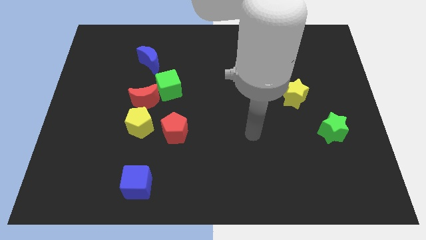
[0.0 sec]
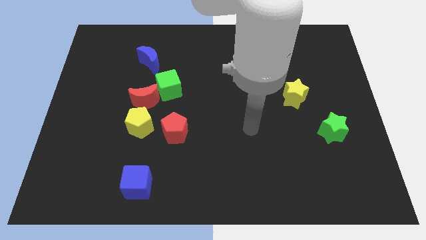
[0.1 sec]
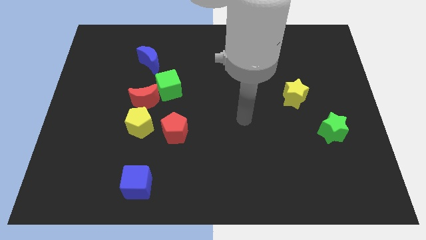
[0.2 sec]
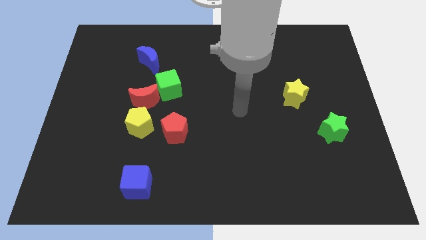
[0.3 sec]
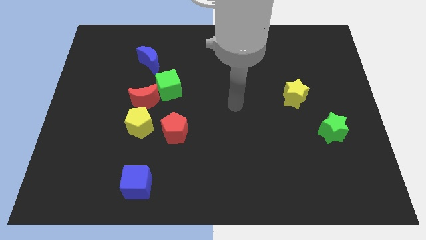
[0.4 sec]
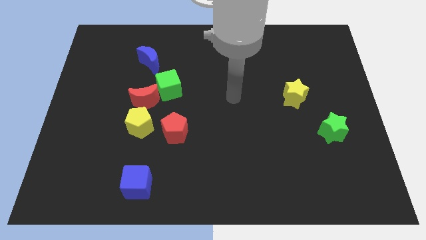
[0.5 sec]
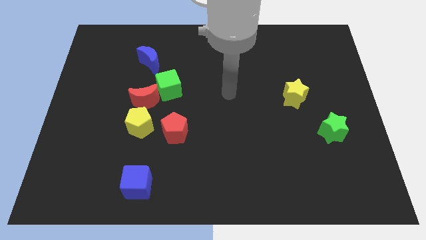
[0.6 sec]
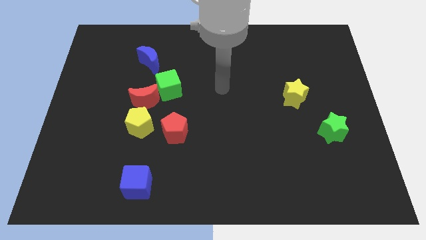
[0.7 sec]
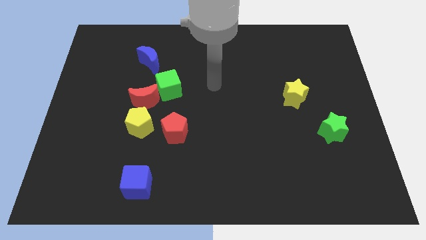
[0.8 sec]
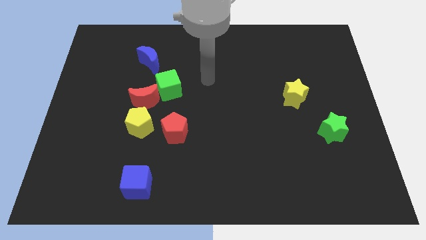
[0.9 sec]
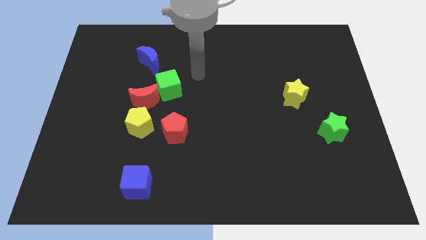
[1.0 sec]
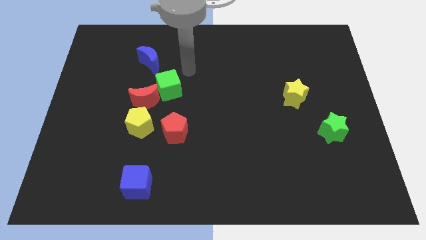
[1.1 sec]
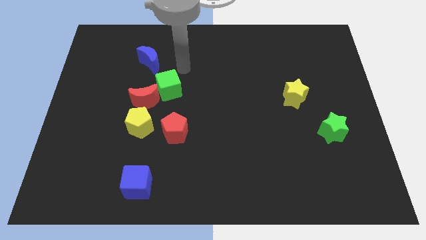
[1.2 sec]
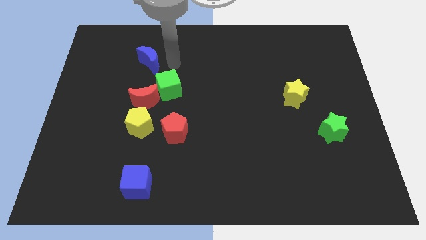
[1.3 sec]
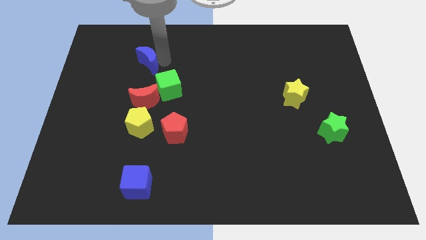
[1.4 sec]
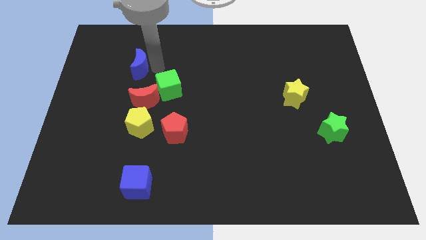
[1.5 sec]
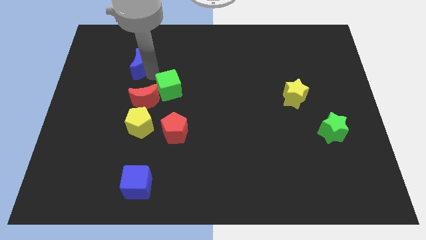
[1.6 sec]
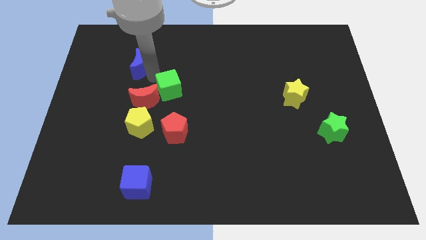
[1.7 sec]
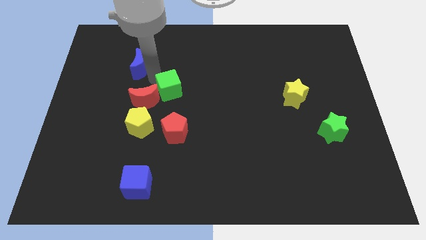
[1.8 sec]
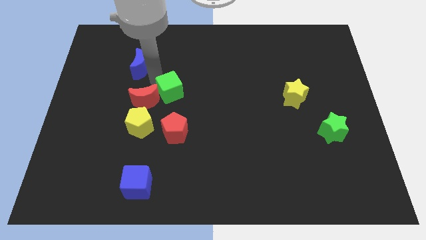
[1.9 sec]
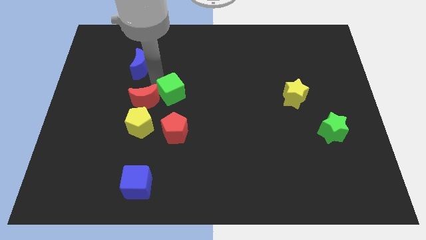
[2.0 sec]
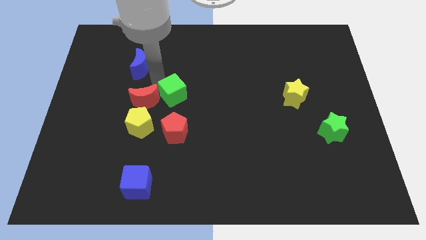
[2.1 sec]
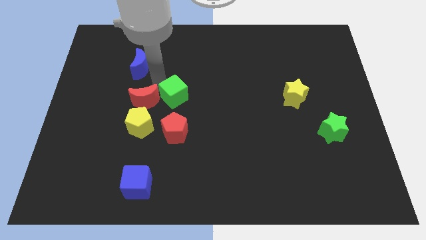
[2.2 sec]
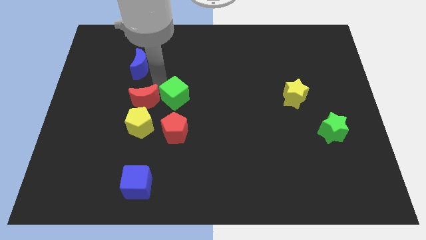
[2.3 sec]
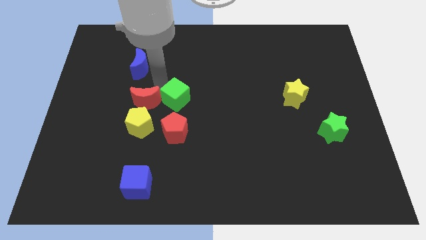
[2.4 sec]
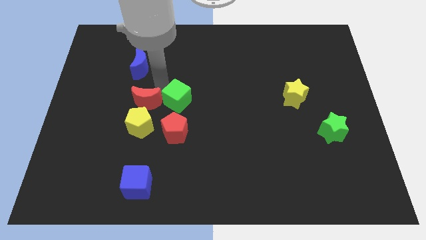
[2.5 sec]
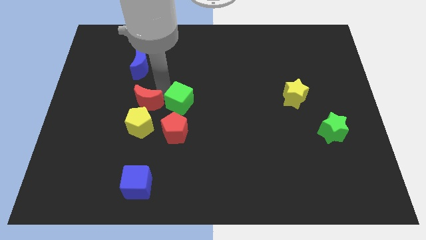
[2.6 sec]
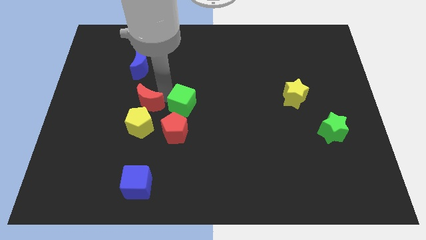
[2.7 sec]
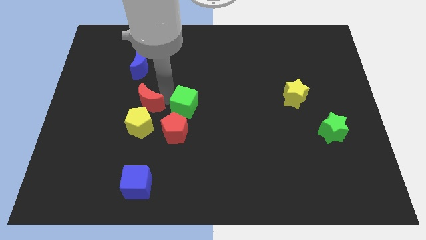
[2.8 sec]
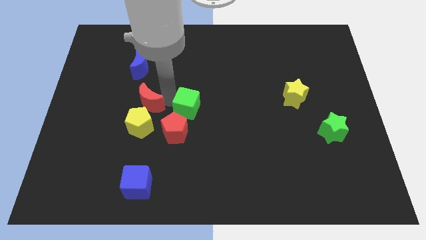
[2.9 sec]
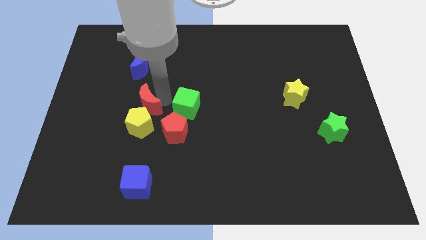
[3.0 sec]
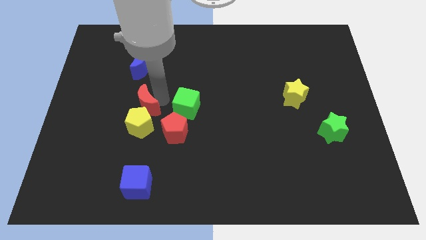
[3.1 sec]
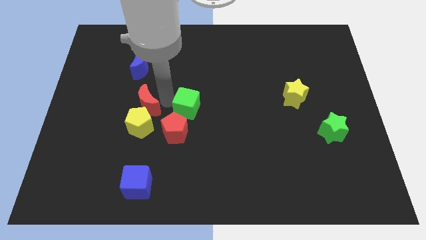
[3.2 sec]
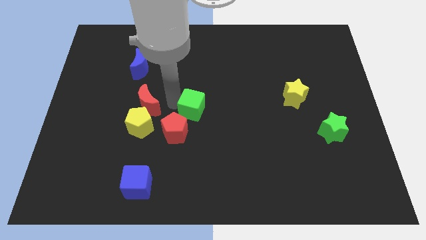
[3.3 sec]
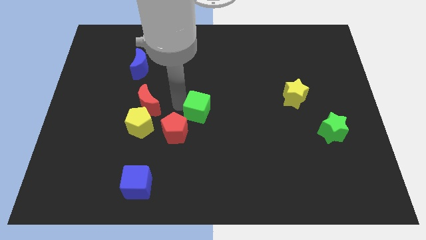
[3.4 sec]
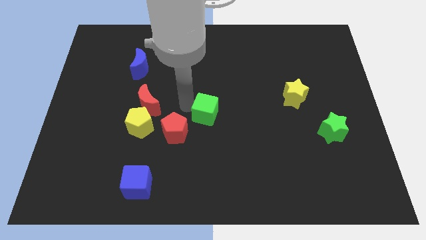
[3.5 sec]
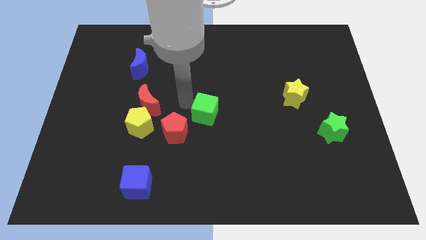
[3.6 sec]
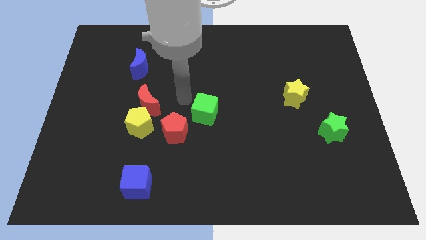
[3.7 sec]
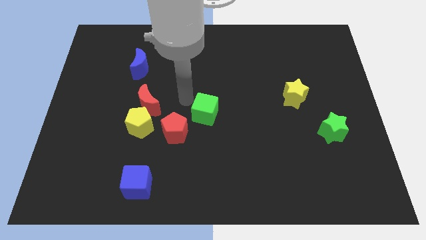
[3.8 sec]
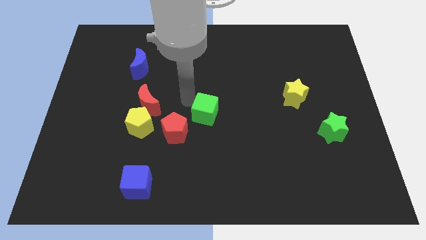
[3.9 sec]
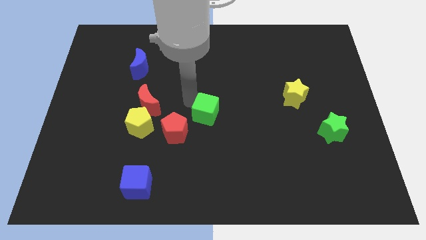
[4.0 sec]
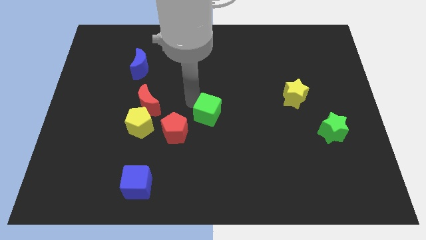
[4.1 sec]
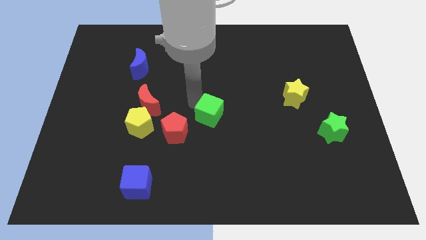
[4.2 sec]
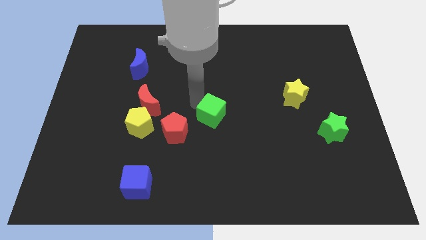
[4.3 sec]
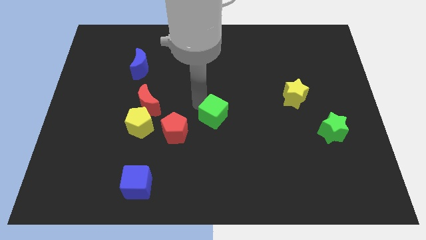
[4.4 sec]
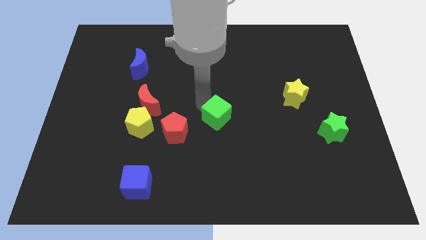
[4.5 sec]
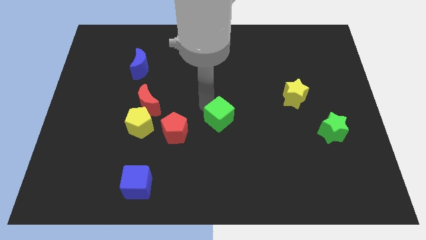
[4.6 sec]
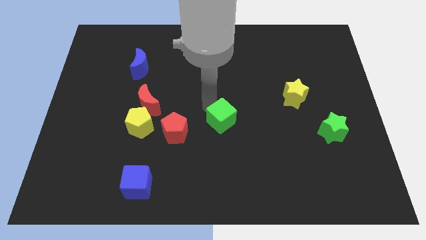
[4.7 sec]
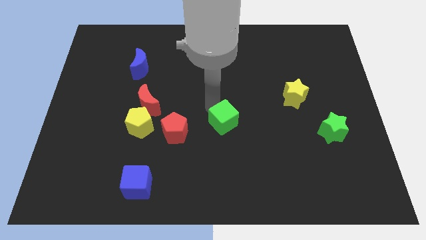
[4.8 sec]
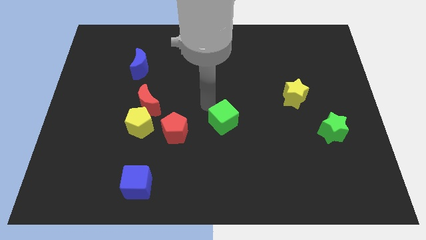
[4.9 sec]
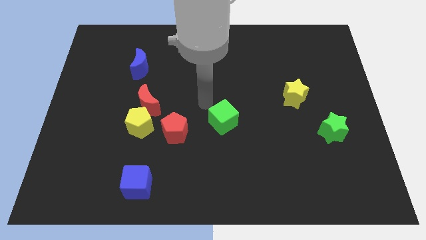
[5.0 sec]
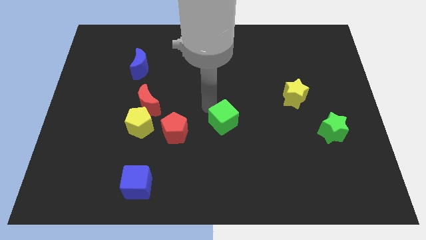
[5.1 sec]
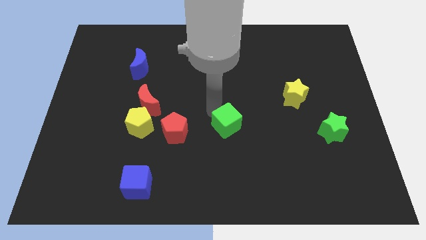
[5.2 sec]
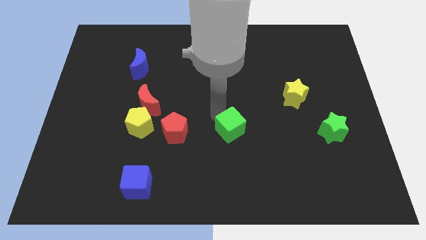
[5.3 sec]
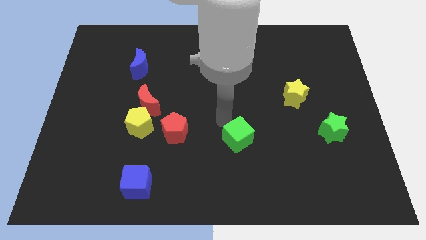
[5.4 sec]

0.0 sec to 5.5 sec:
push the green cube down and right

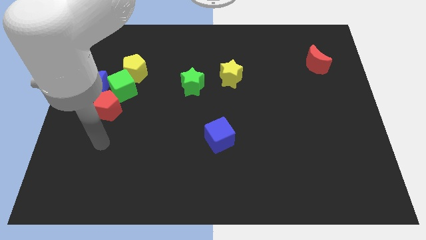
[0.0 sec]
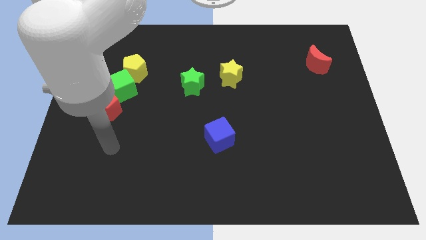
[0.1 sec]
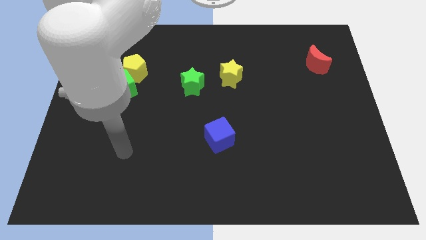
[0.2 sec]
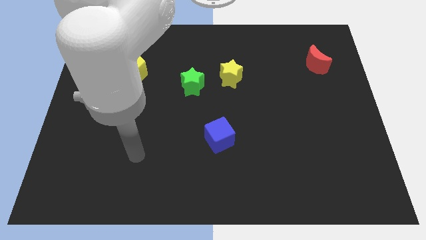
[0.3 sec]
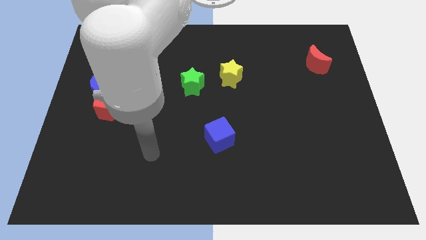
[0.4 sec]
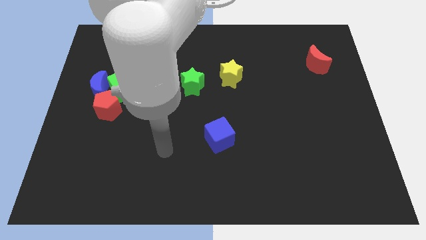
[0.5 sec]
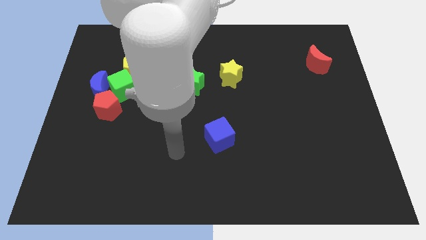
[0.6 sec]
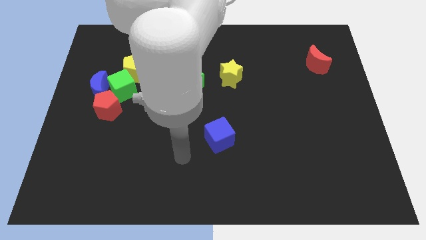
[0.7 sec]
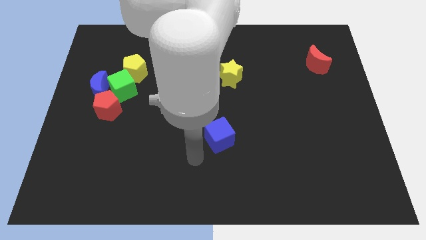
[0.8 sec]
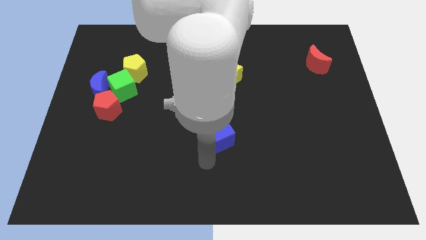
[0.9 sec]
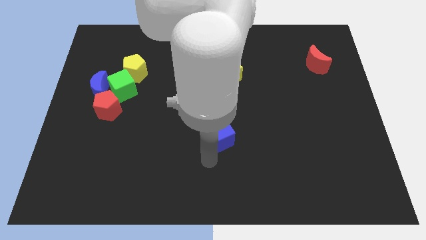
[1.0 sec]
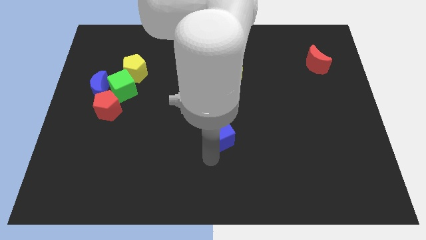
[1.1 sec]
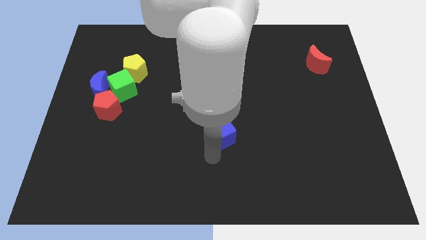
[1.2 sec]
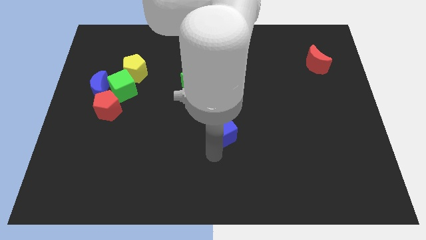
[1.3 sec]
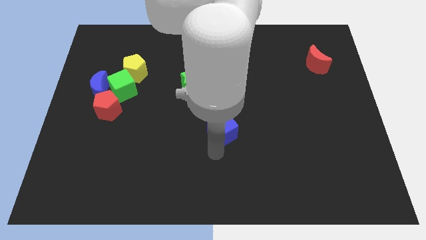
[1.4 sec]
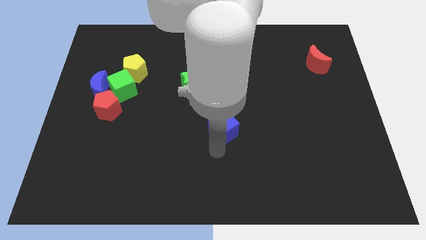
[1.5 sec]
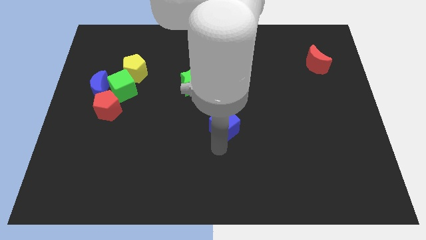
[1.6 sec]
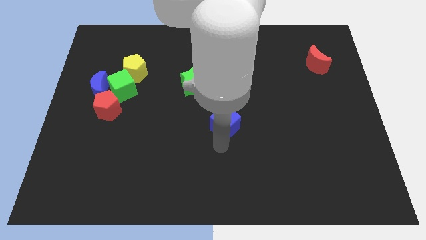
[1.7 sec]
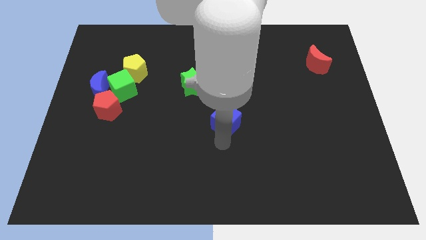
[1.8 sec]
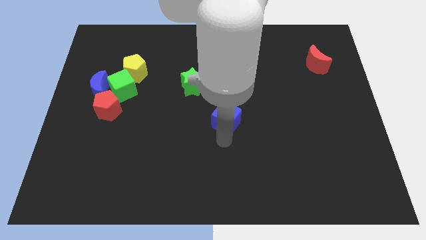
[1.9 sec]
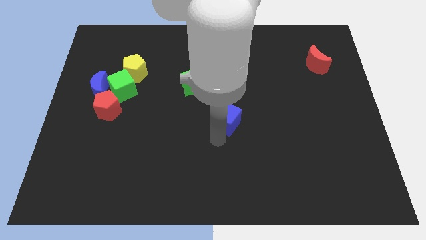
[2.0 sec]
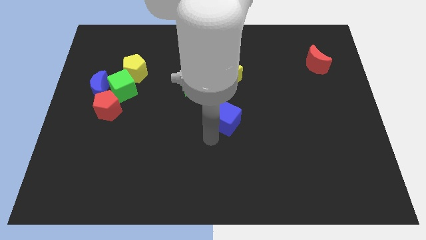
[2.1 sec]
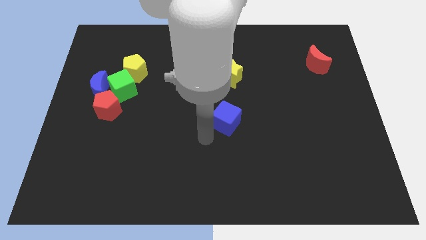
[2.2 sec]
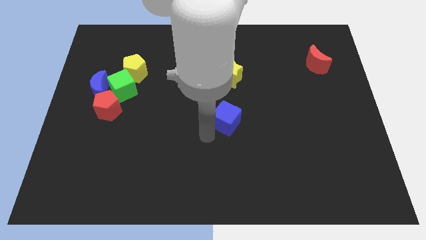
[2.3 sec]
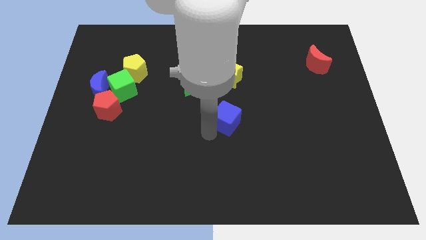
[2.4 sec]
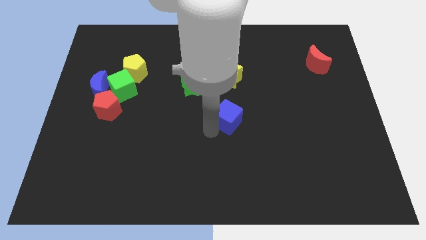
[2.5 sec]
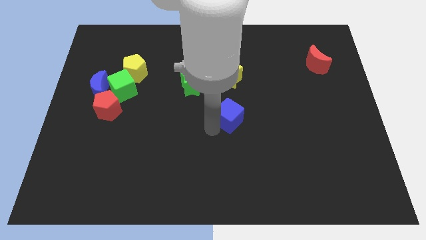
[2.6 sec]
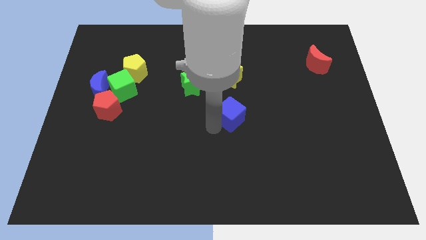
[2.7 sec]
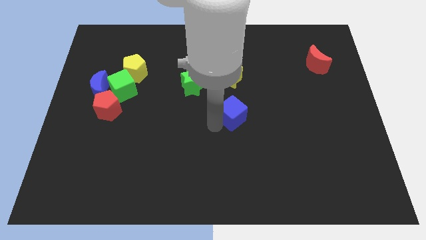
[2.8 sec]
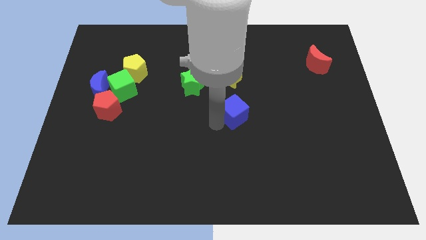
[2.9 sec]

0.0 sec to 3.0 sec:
push the blue cube a little upwards and then to the right

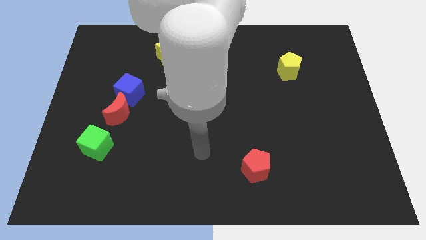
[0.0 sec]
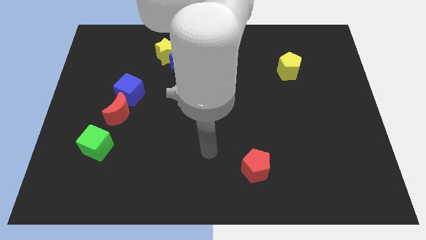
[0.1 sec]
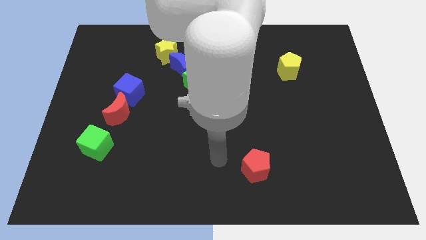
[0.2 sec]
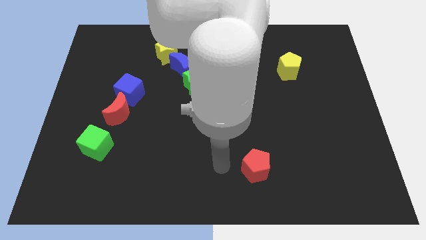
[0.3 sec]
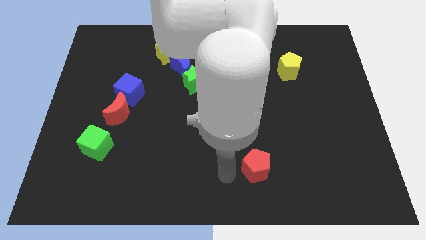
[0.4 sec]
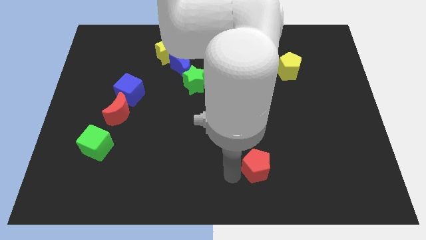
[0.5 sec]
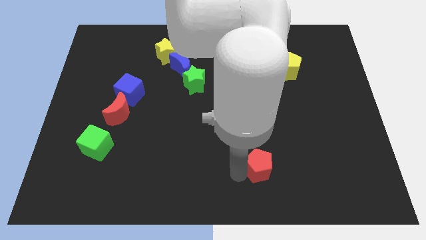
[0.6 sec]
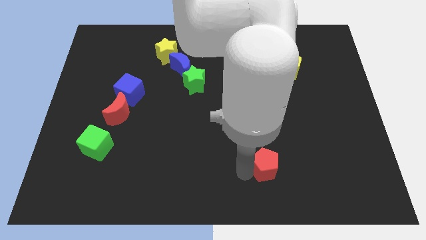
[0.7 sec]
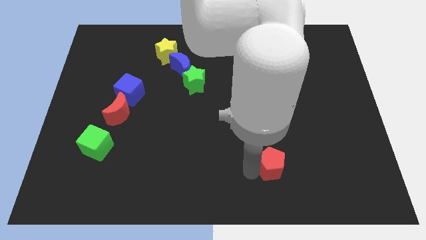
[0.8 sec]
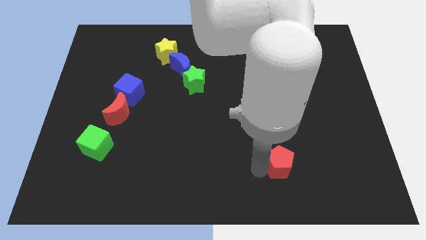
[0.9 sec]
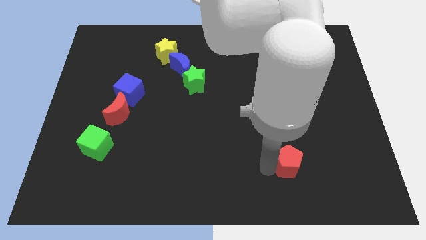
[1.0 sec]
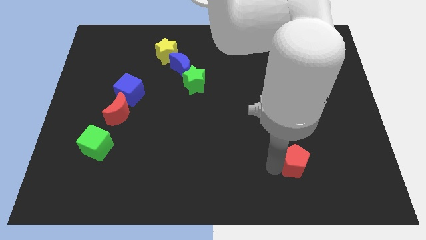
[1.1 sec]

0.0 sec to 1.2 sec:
push the red pentagon a little right
